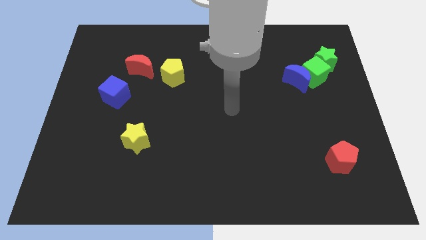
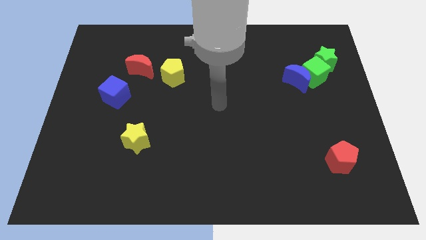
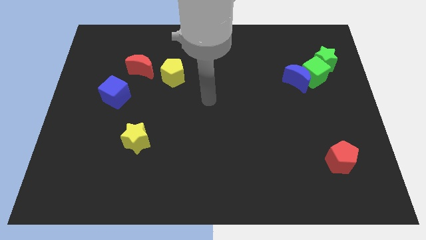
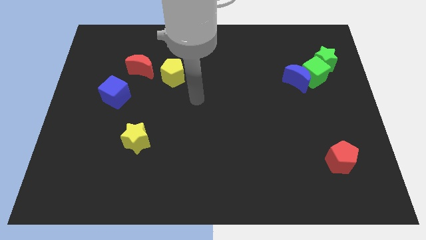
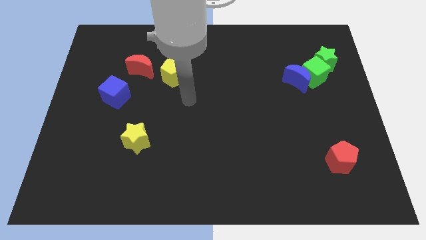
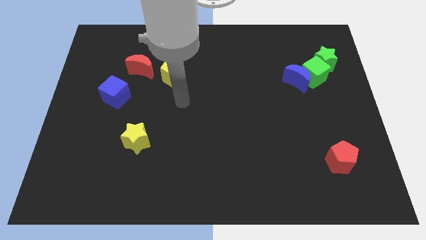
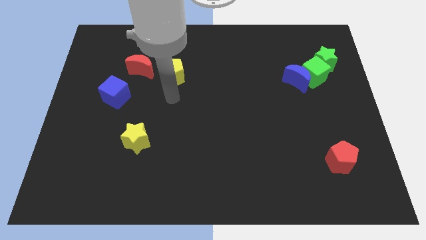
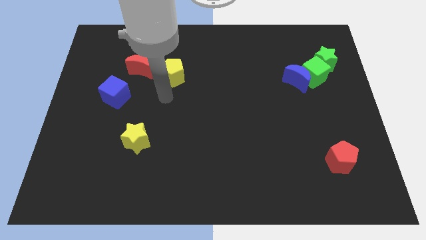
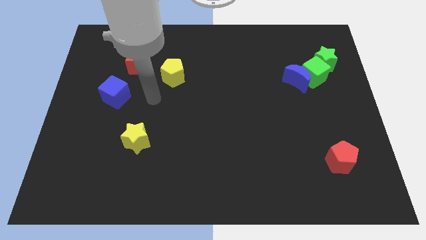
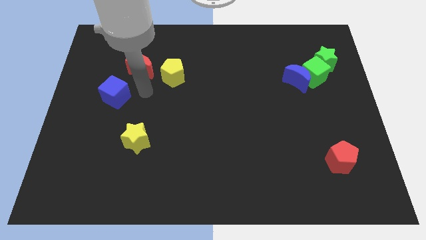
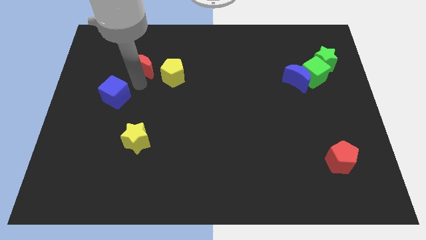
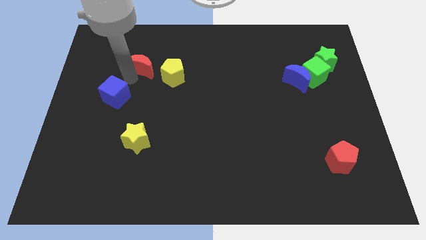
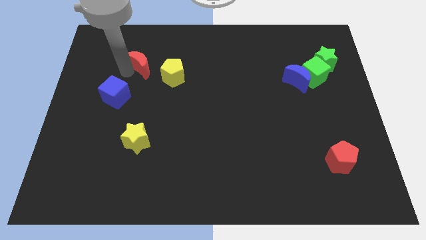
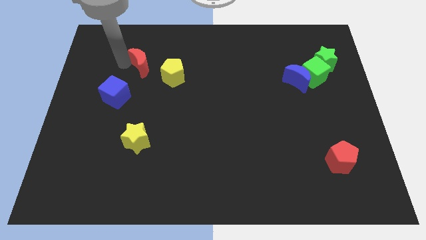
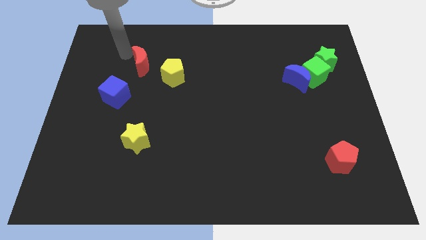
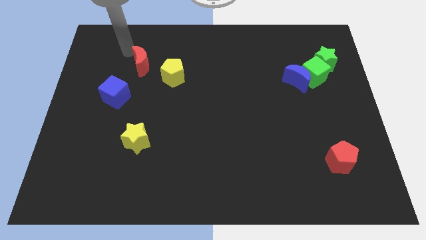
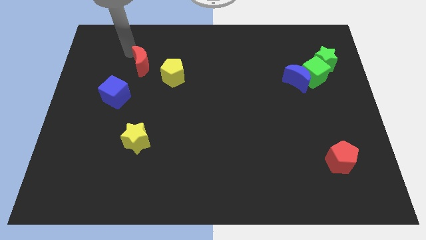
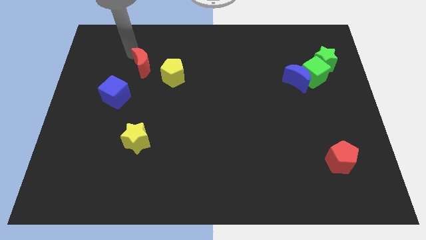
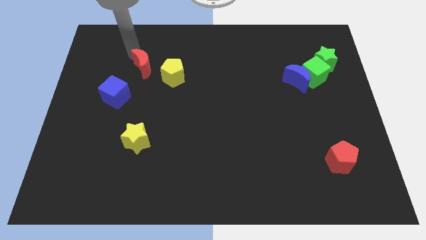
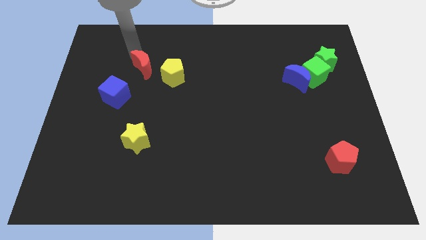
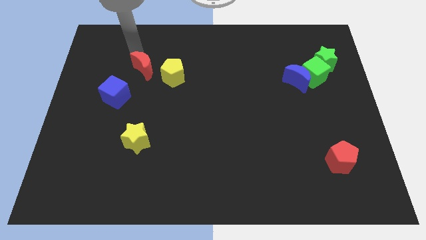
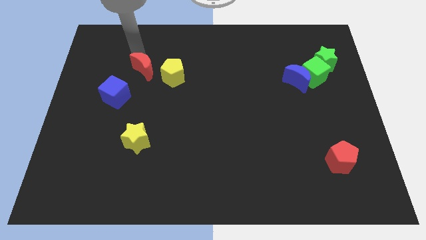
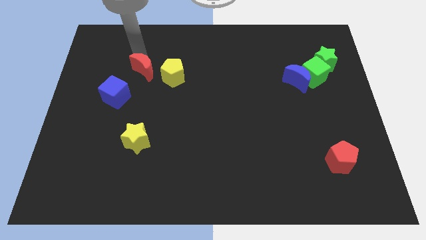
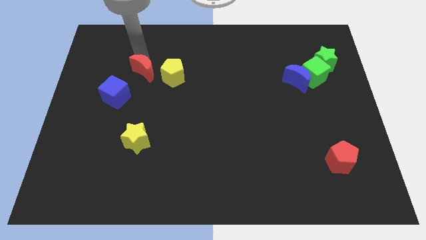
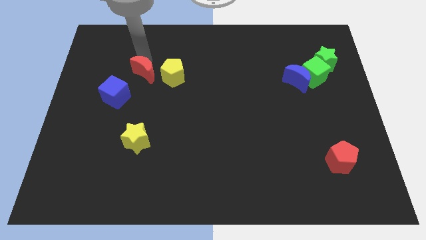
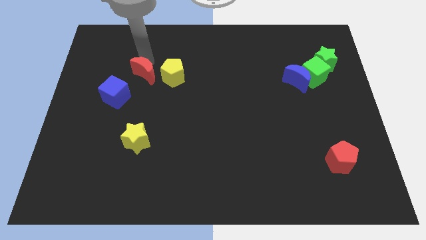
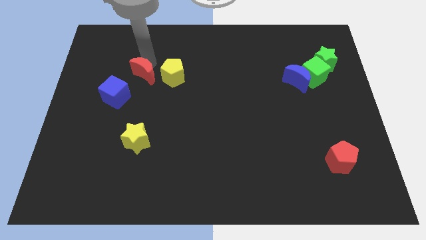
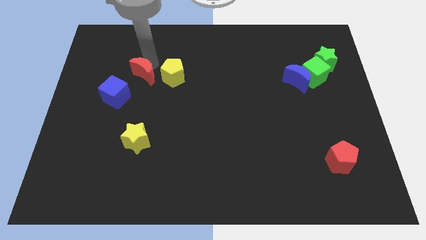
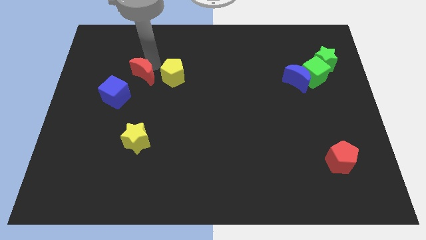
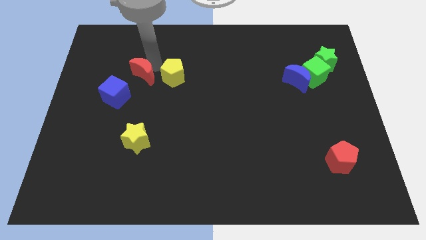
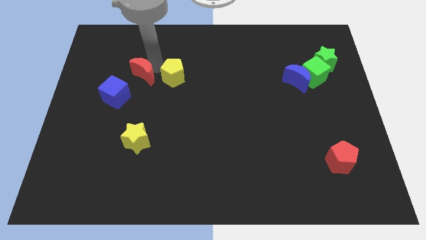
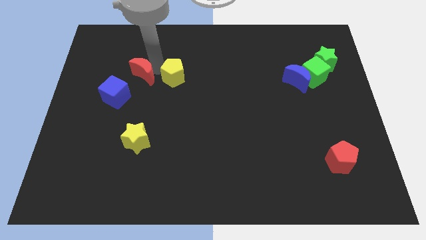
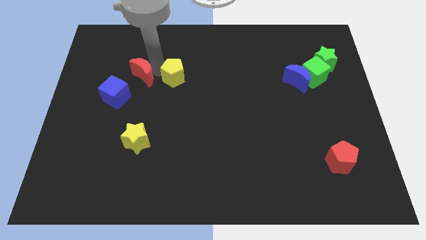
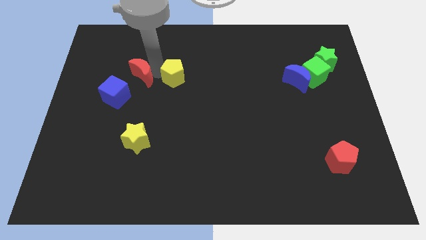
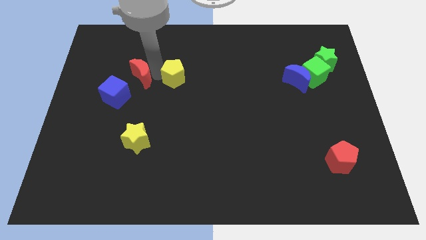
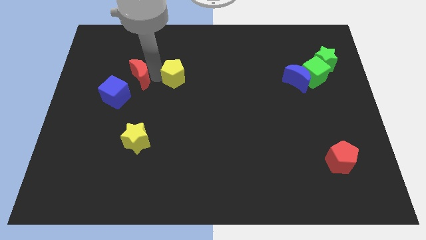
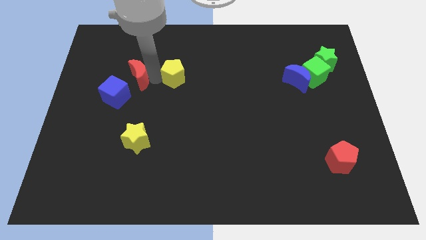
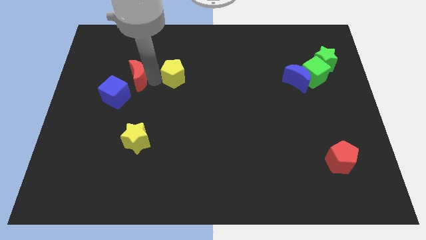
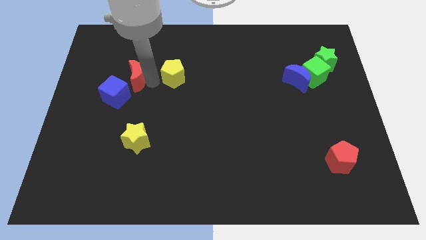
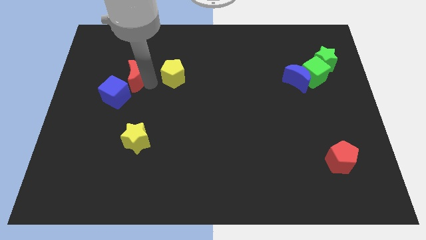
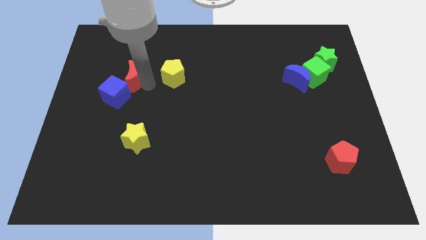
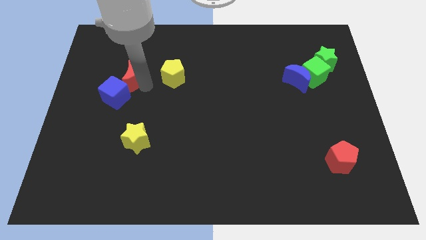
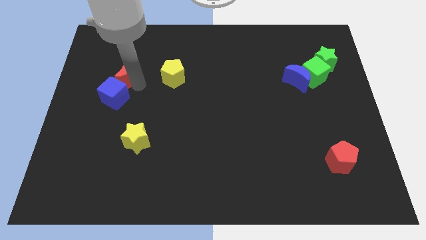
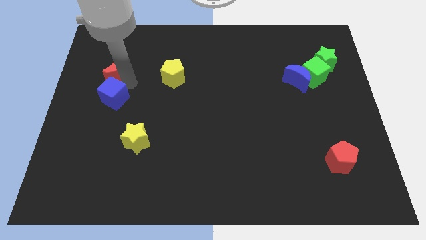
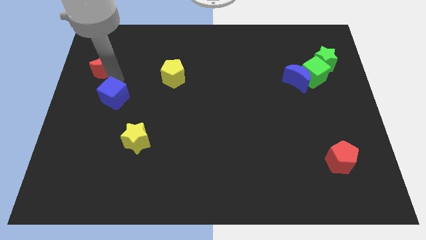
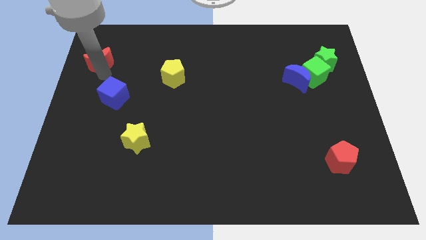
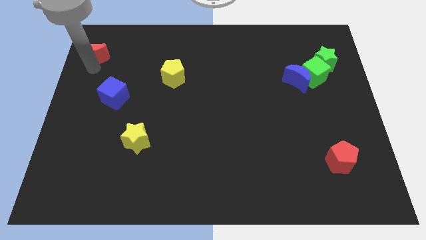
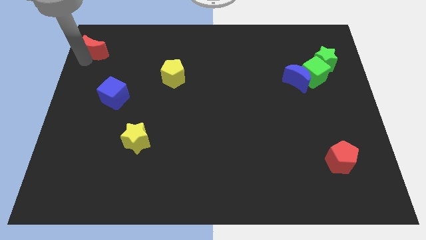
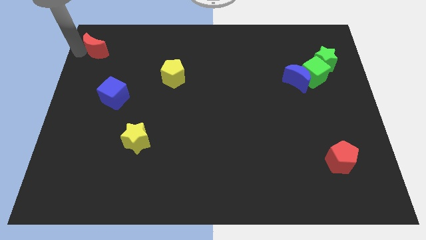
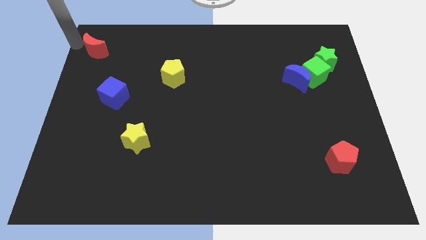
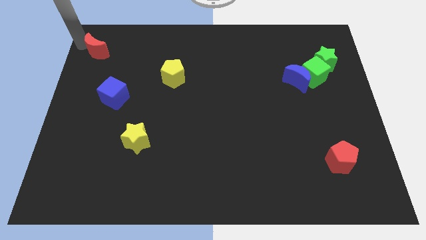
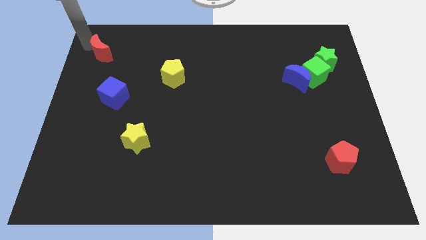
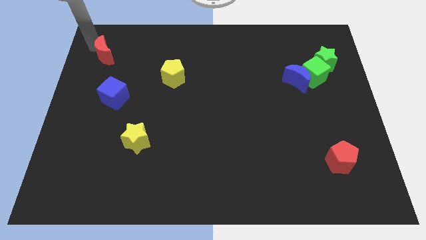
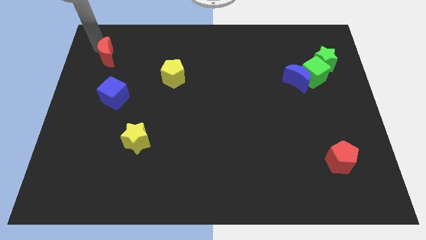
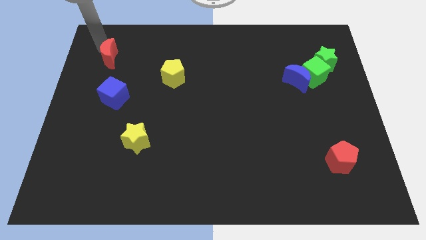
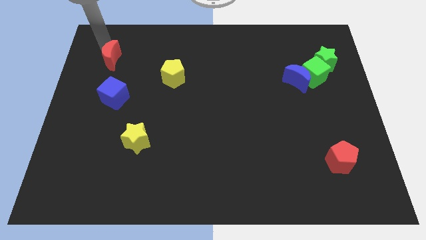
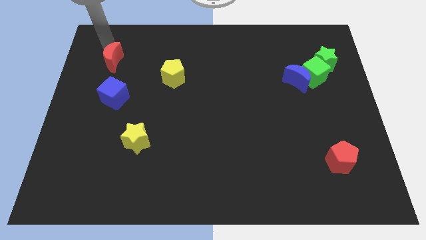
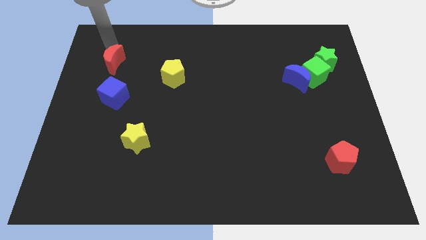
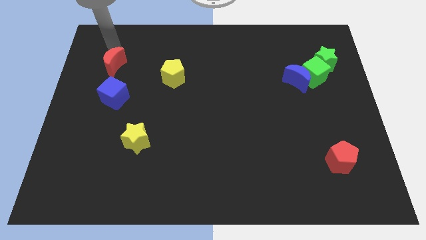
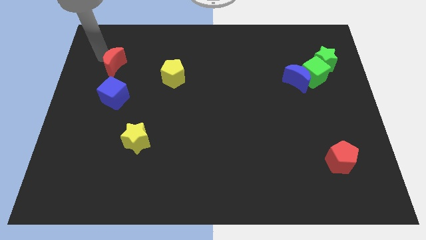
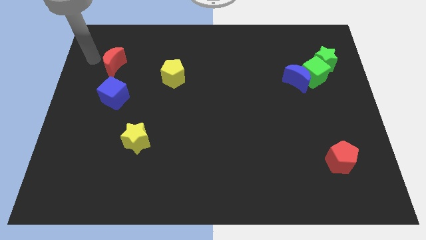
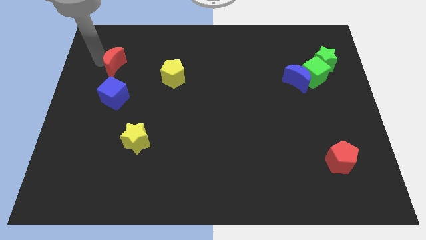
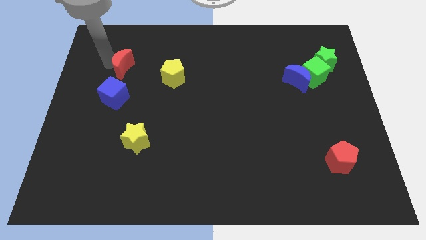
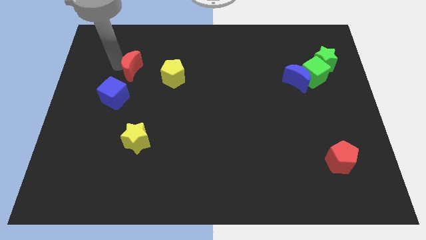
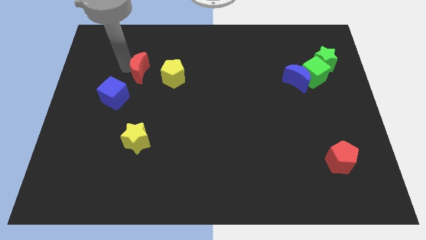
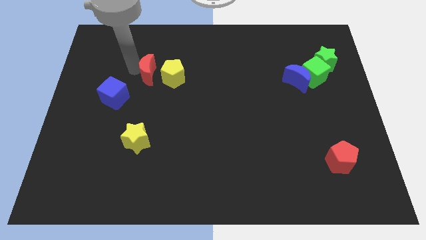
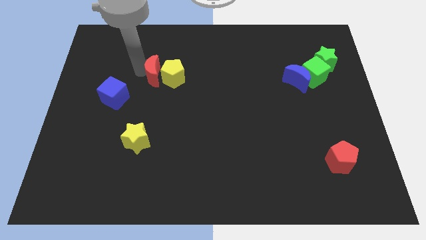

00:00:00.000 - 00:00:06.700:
move the red moon towards the yellow pentagon
